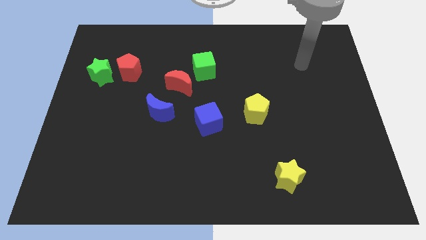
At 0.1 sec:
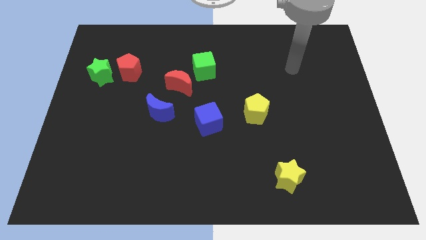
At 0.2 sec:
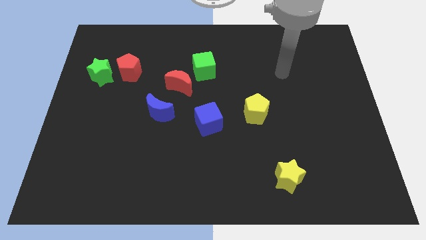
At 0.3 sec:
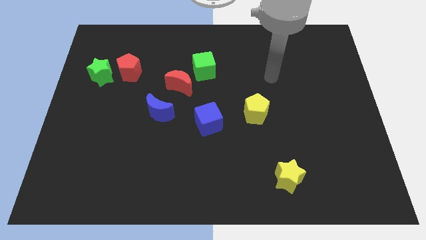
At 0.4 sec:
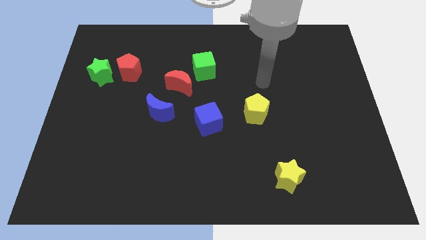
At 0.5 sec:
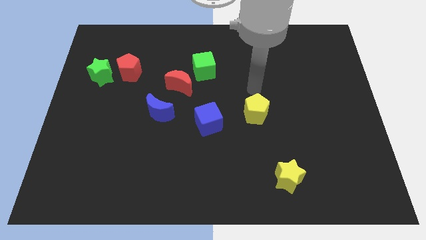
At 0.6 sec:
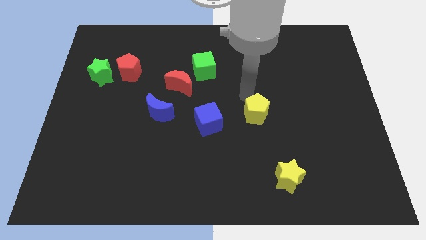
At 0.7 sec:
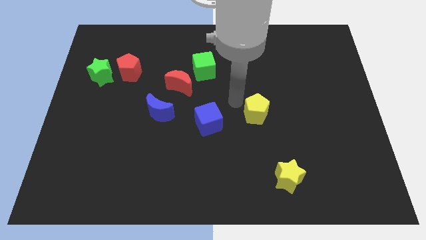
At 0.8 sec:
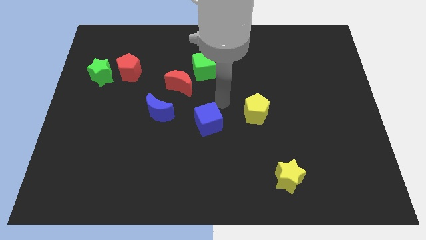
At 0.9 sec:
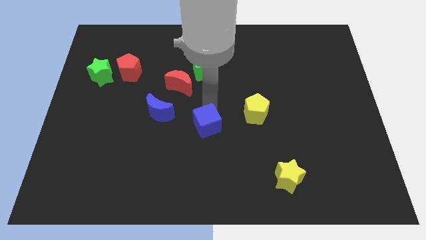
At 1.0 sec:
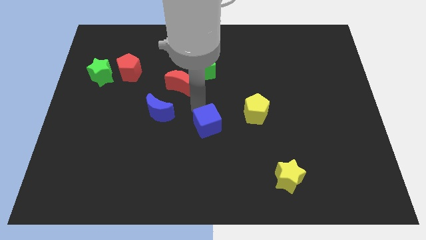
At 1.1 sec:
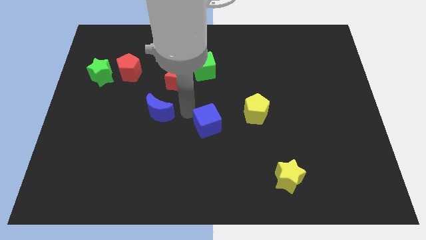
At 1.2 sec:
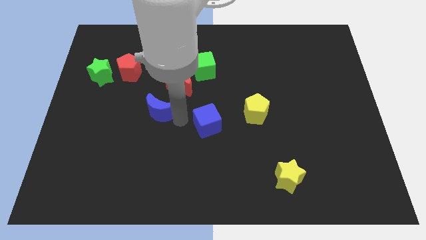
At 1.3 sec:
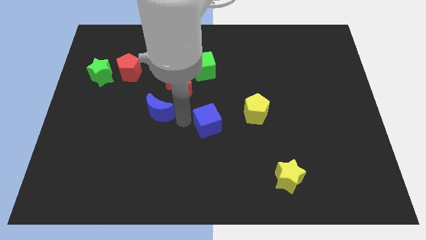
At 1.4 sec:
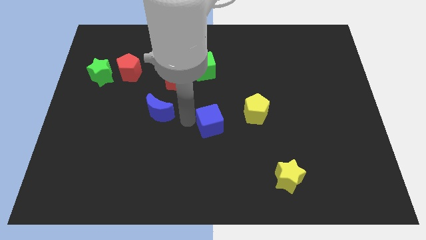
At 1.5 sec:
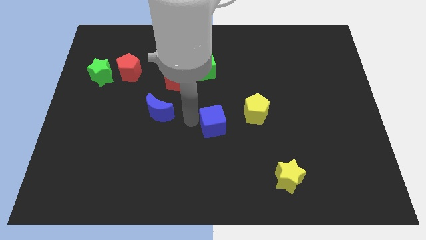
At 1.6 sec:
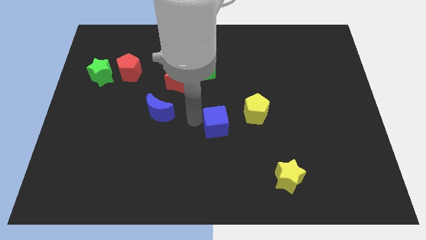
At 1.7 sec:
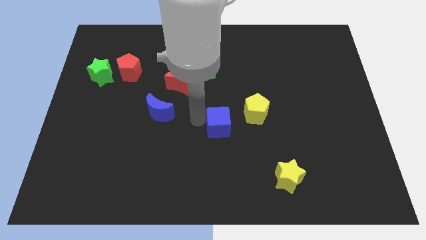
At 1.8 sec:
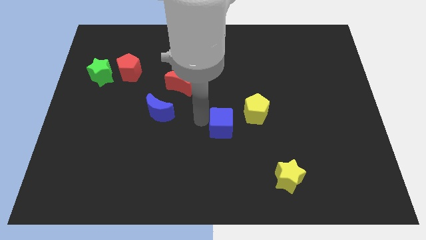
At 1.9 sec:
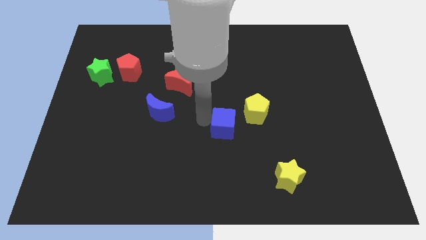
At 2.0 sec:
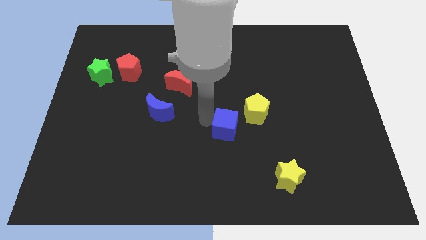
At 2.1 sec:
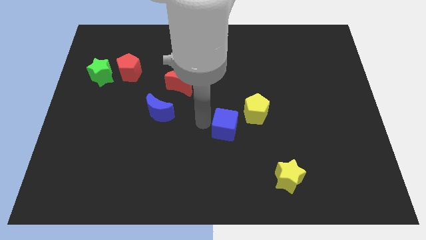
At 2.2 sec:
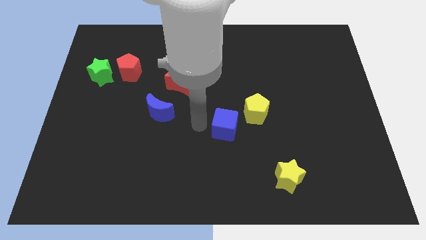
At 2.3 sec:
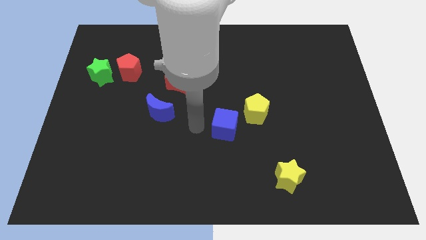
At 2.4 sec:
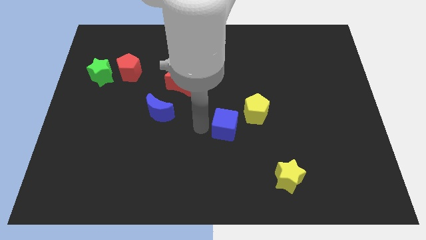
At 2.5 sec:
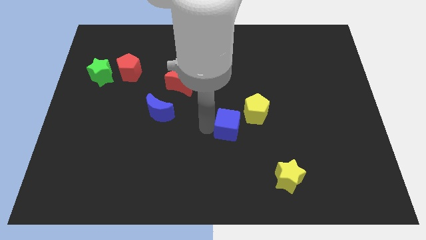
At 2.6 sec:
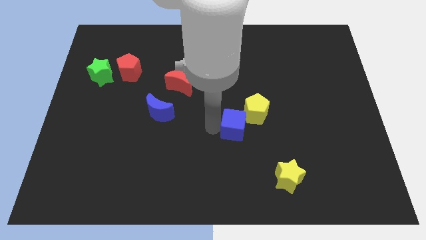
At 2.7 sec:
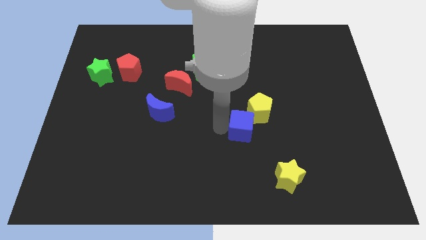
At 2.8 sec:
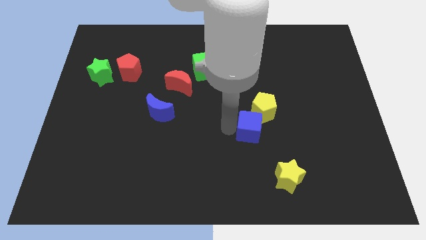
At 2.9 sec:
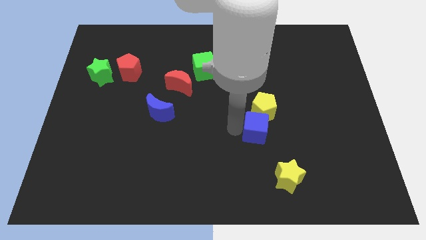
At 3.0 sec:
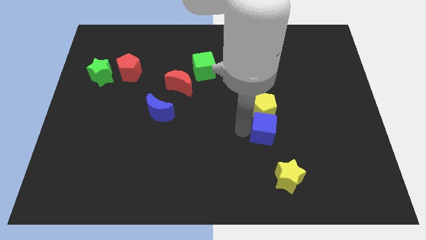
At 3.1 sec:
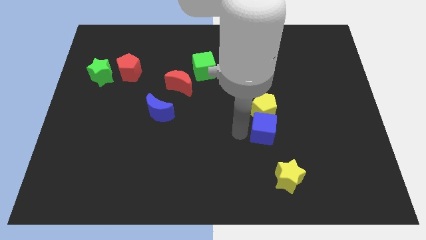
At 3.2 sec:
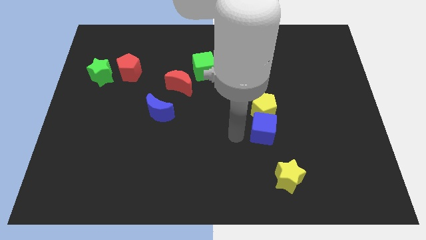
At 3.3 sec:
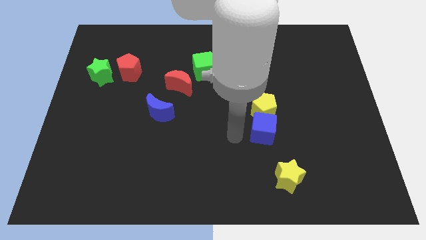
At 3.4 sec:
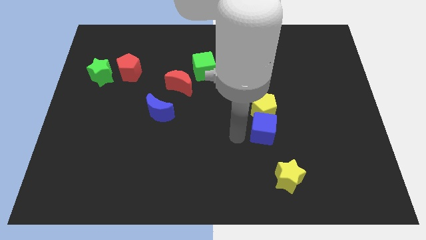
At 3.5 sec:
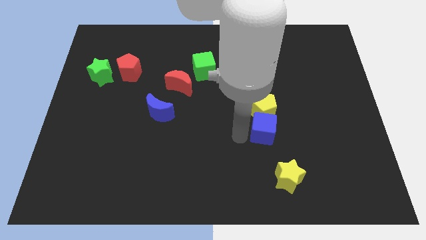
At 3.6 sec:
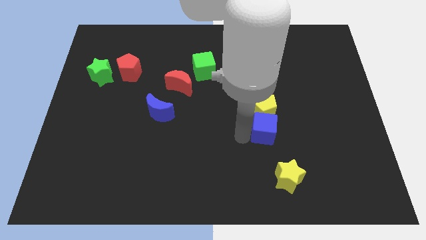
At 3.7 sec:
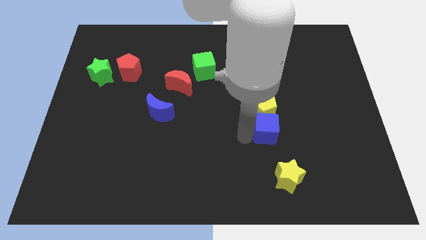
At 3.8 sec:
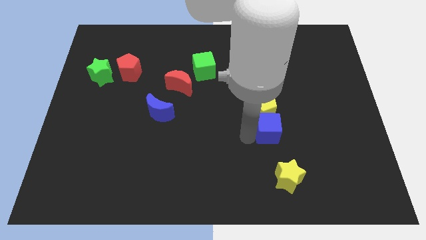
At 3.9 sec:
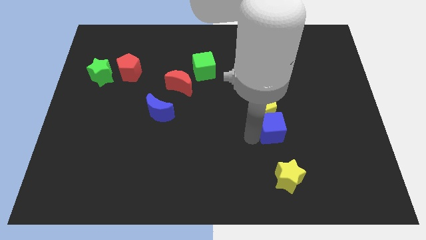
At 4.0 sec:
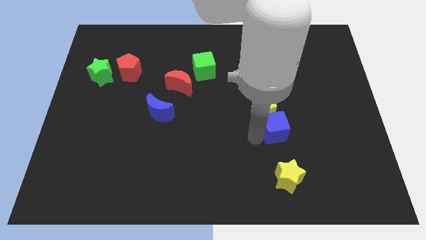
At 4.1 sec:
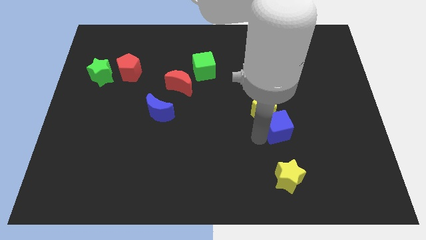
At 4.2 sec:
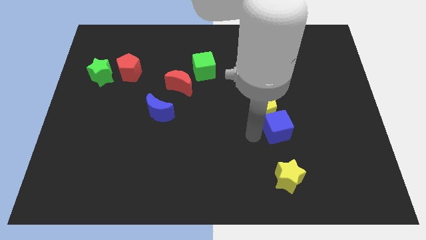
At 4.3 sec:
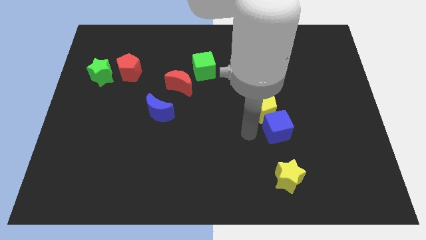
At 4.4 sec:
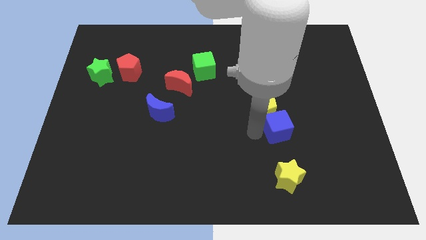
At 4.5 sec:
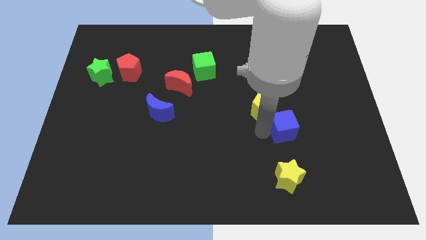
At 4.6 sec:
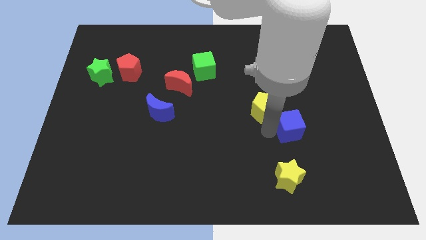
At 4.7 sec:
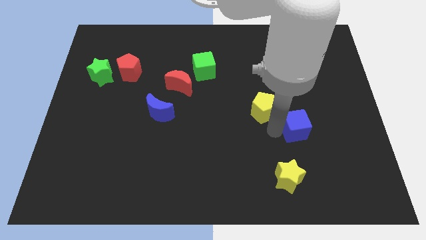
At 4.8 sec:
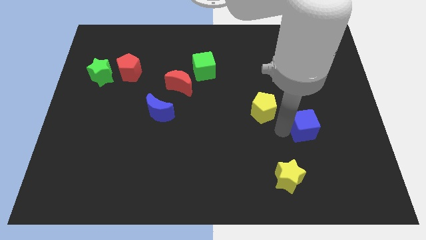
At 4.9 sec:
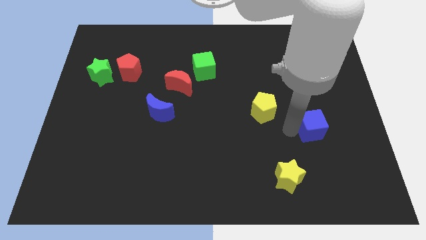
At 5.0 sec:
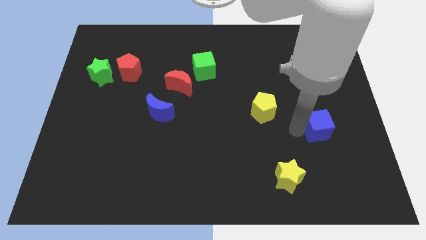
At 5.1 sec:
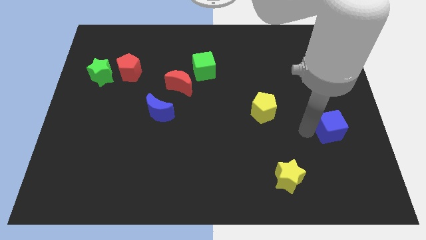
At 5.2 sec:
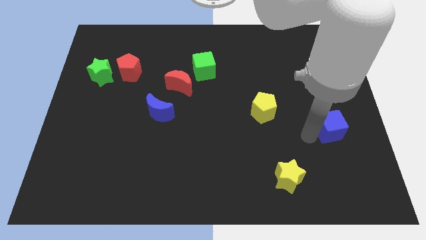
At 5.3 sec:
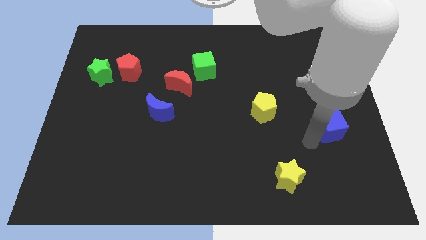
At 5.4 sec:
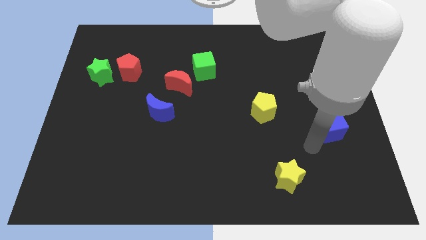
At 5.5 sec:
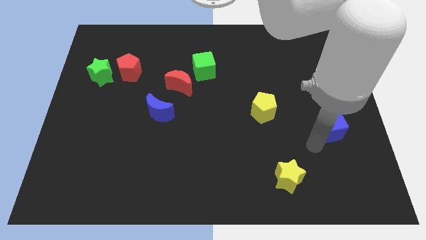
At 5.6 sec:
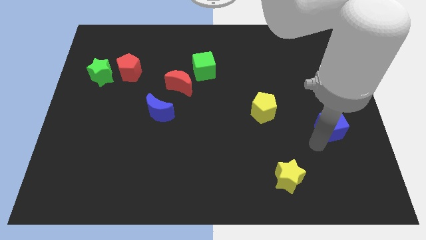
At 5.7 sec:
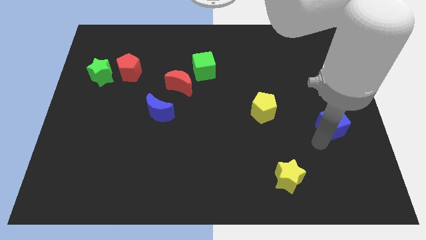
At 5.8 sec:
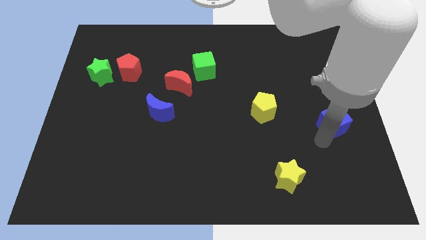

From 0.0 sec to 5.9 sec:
push the blue cube to the right side

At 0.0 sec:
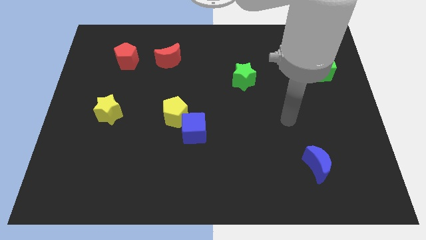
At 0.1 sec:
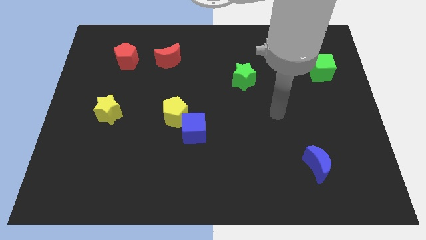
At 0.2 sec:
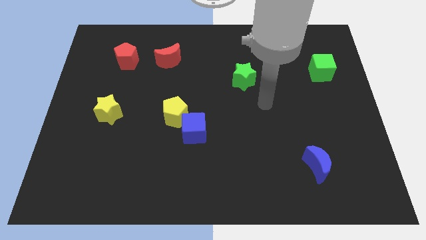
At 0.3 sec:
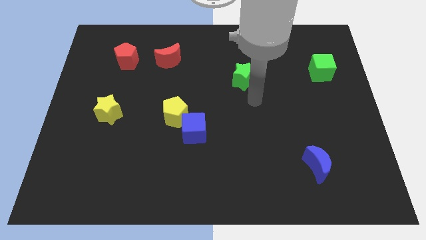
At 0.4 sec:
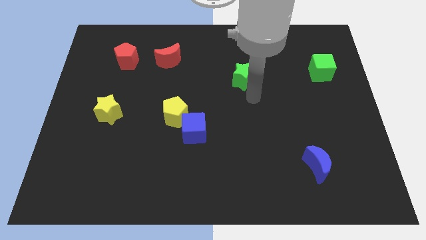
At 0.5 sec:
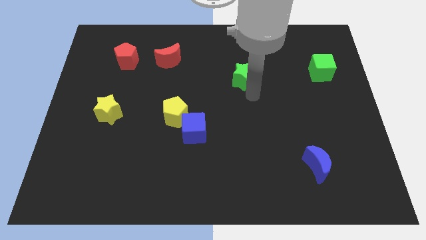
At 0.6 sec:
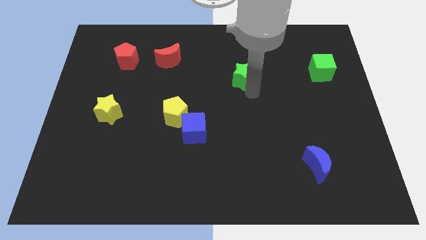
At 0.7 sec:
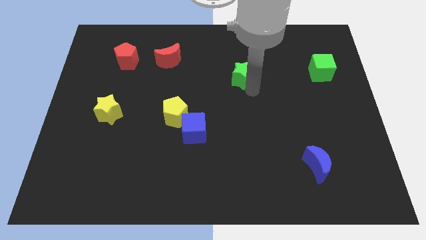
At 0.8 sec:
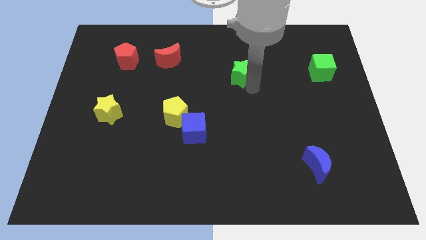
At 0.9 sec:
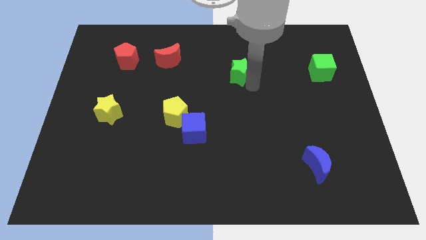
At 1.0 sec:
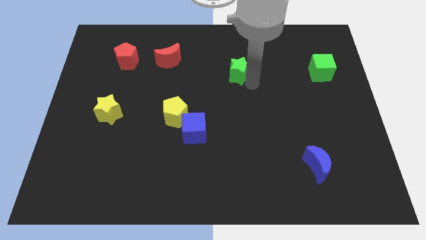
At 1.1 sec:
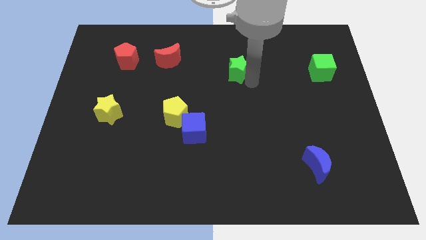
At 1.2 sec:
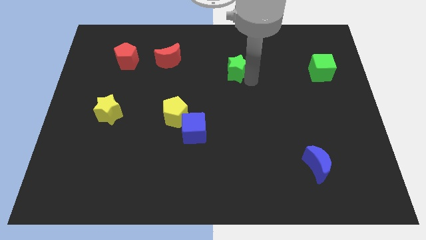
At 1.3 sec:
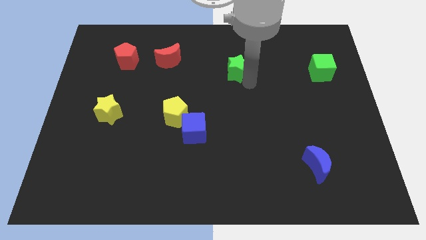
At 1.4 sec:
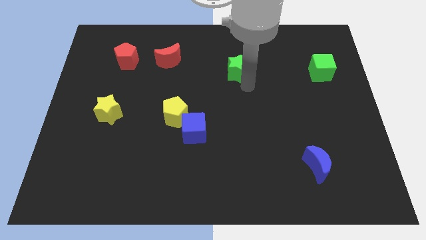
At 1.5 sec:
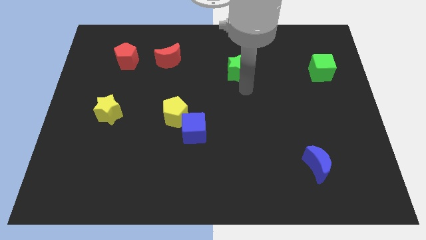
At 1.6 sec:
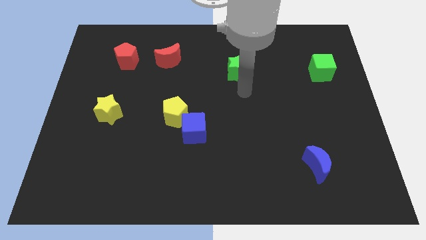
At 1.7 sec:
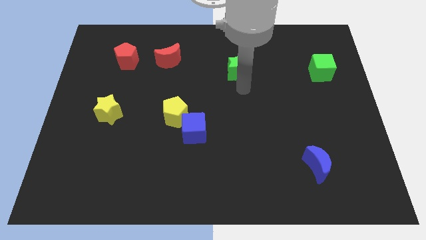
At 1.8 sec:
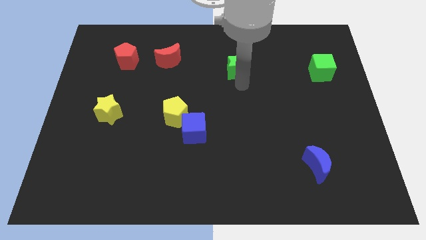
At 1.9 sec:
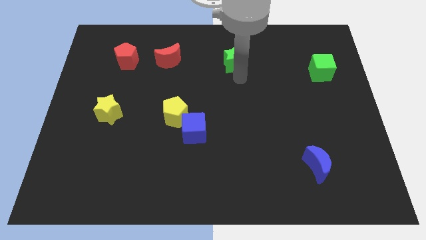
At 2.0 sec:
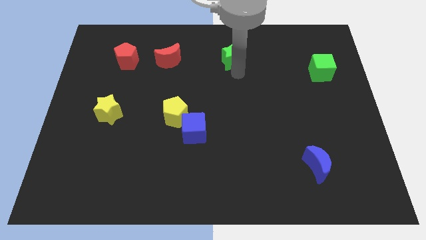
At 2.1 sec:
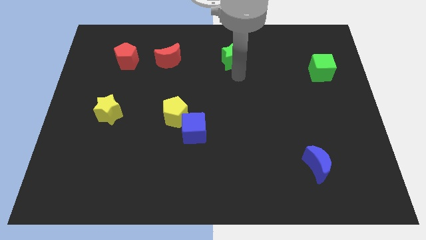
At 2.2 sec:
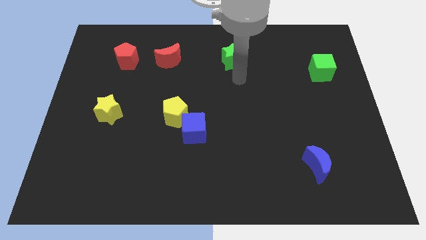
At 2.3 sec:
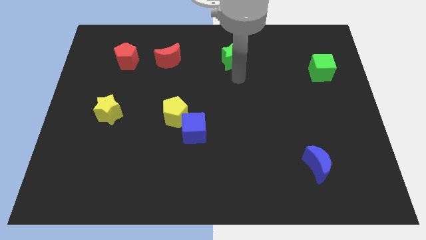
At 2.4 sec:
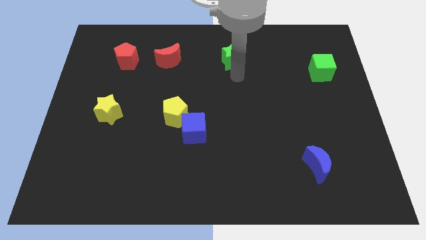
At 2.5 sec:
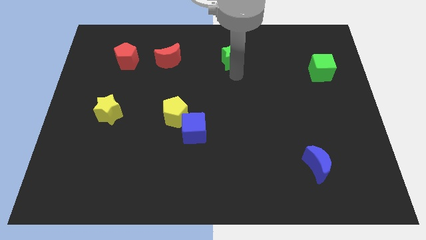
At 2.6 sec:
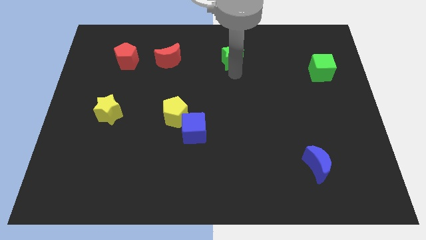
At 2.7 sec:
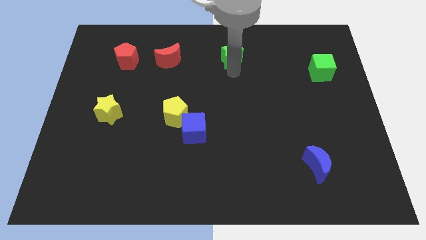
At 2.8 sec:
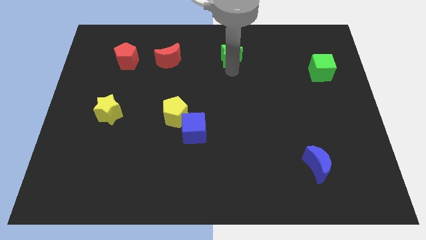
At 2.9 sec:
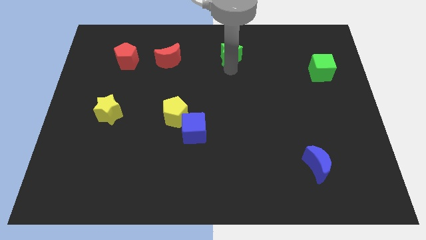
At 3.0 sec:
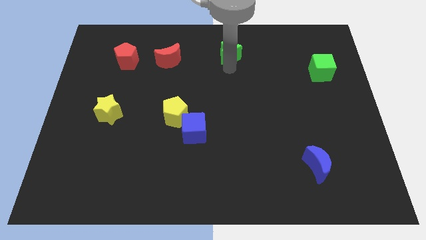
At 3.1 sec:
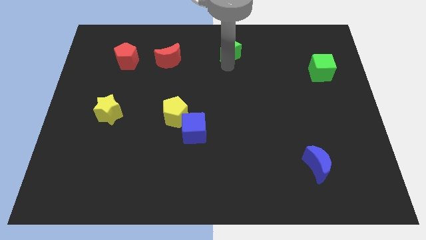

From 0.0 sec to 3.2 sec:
move the green star to the towards your base
